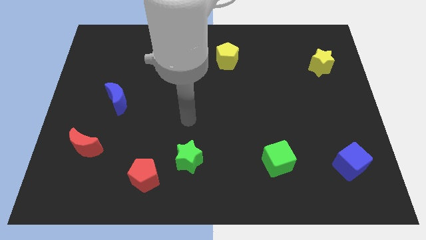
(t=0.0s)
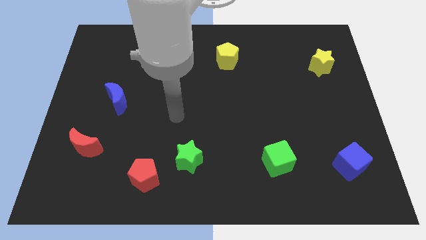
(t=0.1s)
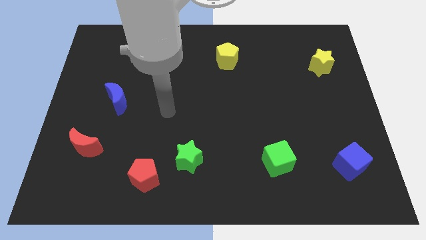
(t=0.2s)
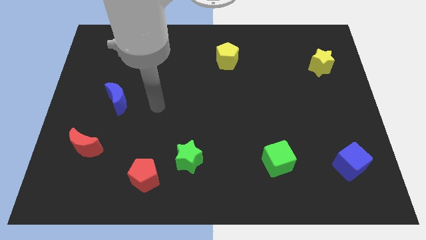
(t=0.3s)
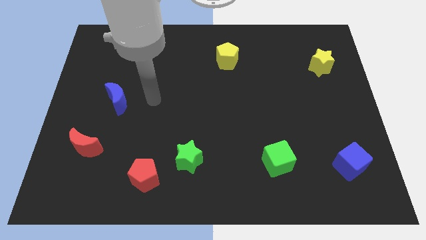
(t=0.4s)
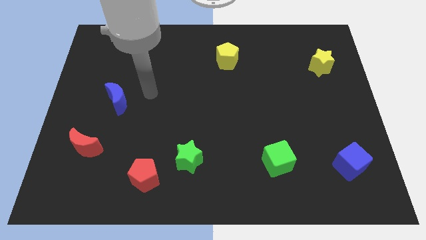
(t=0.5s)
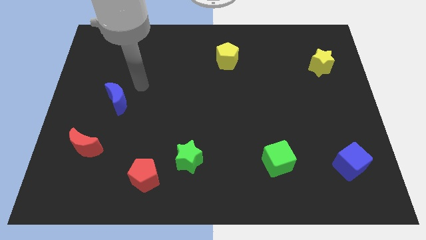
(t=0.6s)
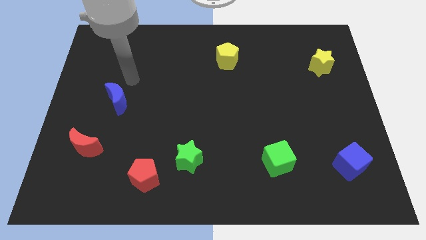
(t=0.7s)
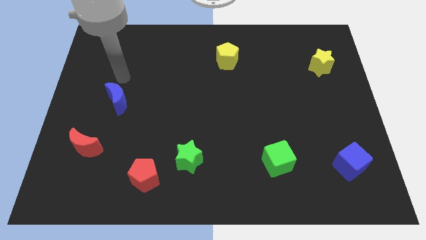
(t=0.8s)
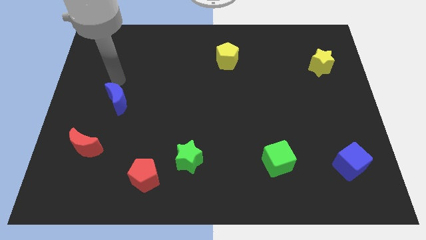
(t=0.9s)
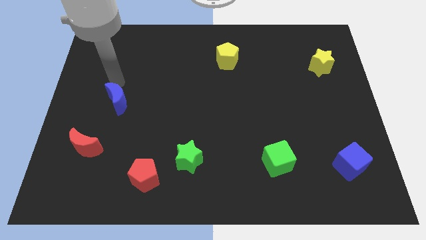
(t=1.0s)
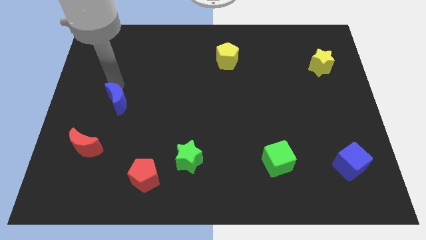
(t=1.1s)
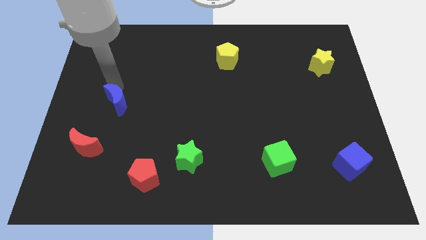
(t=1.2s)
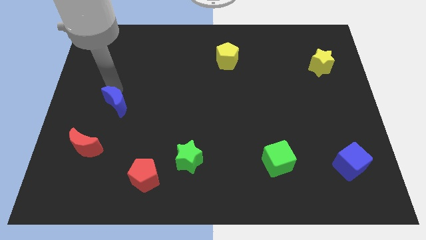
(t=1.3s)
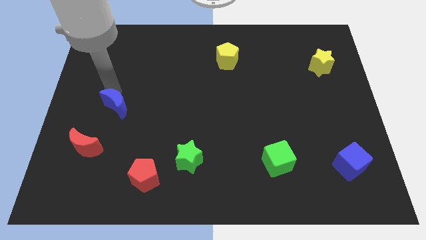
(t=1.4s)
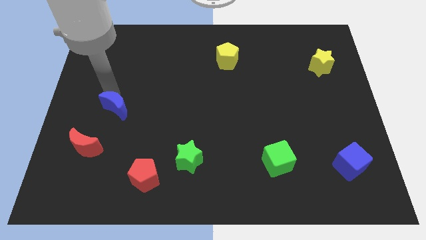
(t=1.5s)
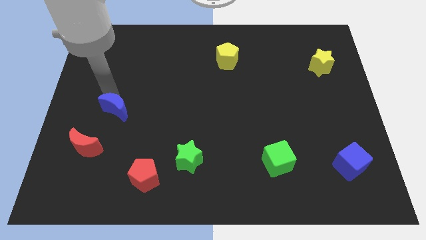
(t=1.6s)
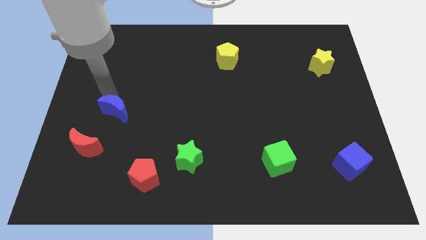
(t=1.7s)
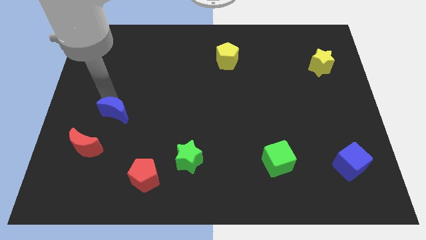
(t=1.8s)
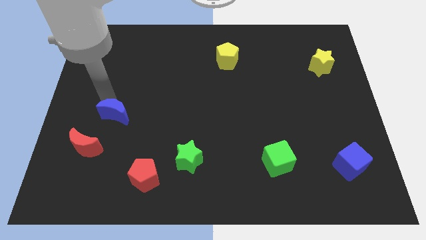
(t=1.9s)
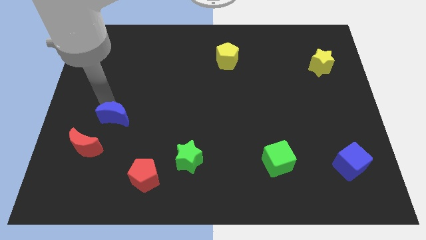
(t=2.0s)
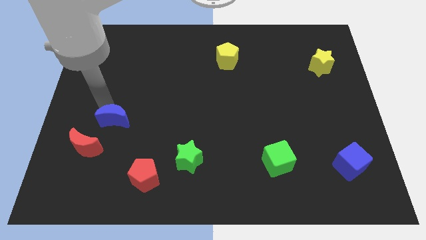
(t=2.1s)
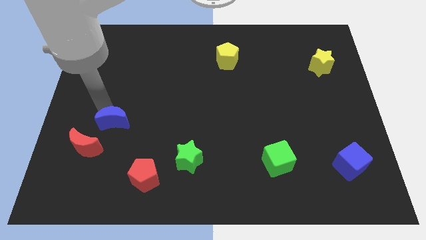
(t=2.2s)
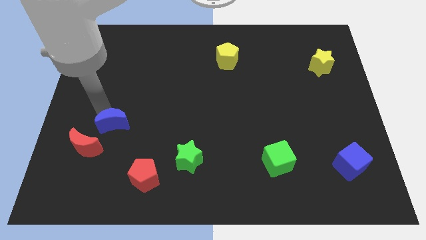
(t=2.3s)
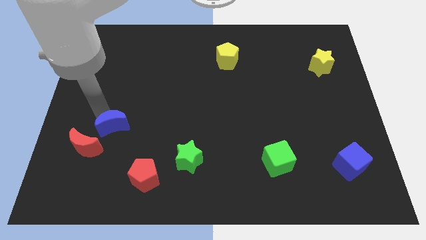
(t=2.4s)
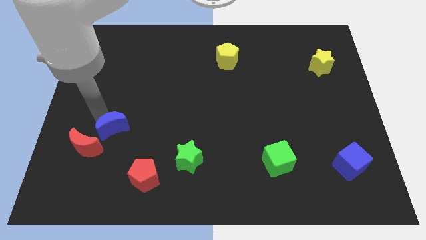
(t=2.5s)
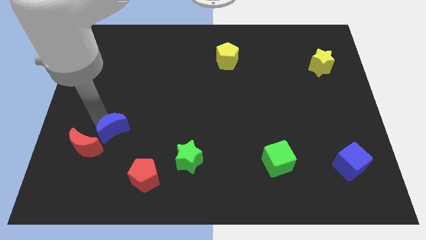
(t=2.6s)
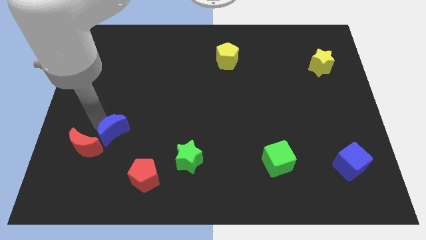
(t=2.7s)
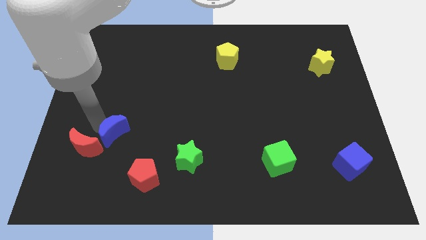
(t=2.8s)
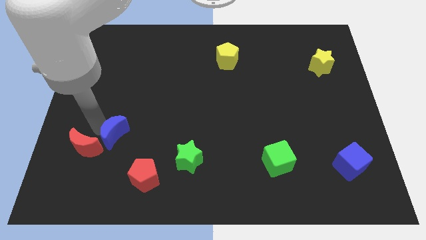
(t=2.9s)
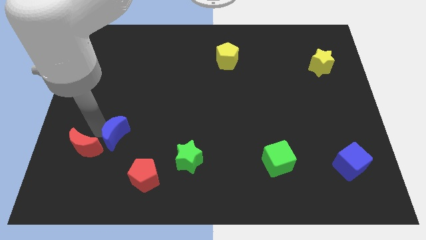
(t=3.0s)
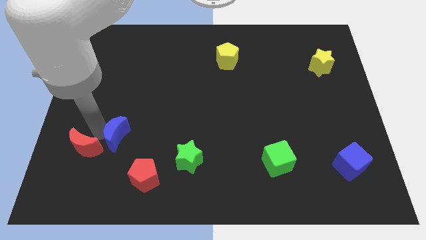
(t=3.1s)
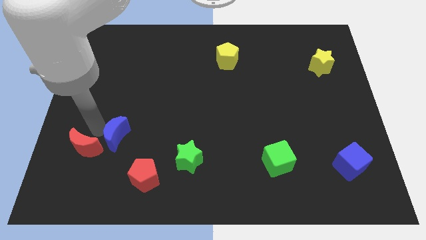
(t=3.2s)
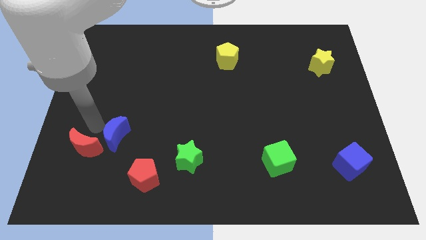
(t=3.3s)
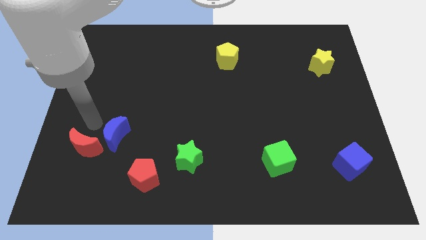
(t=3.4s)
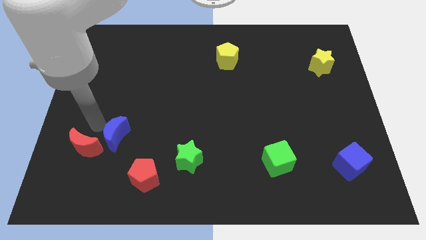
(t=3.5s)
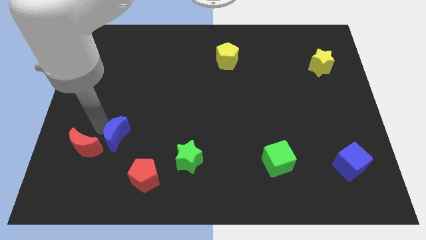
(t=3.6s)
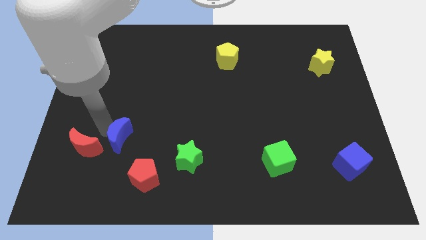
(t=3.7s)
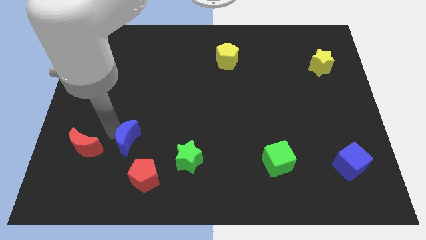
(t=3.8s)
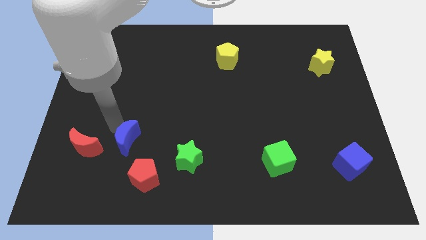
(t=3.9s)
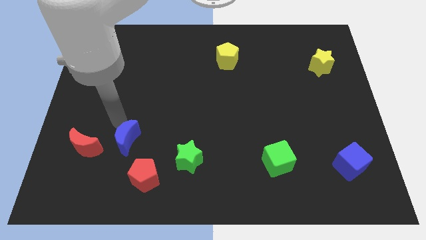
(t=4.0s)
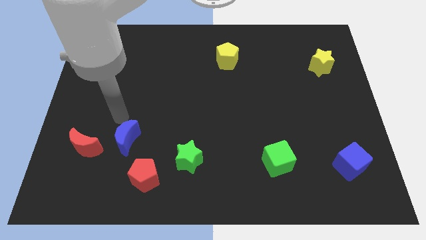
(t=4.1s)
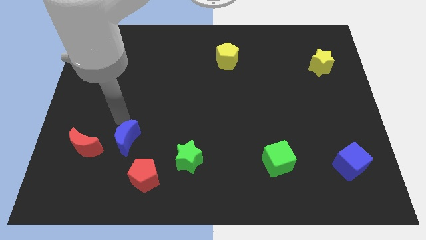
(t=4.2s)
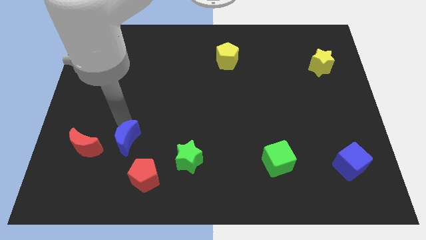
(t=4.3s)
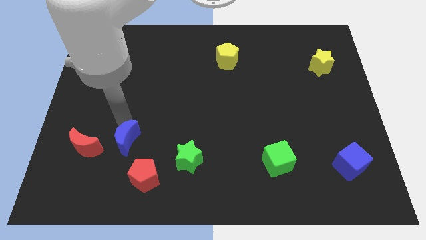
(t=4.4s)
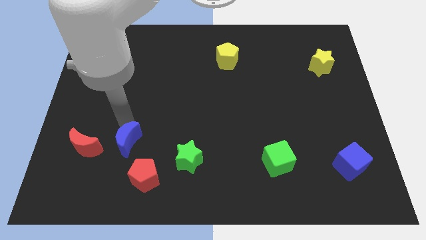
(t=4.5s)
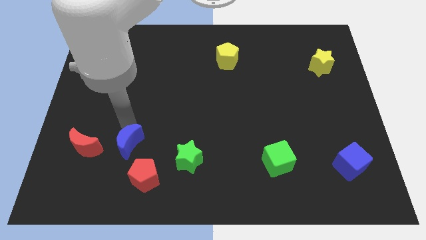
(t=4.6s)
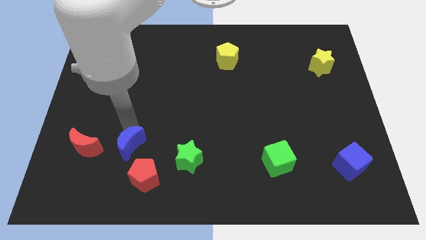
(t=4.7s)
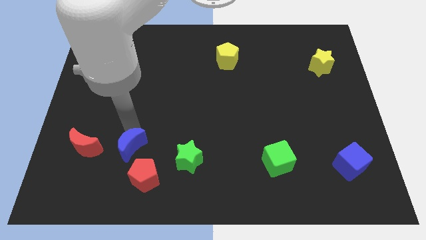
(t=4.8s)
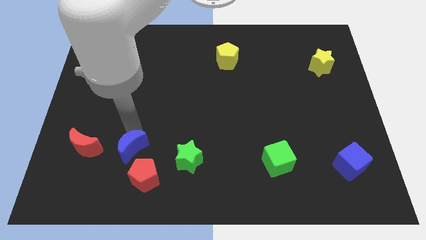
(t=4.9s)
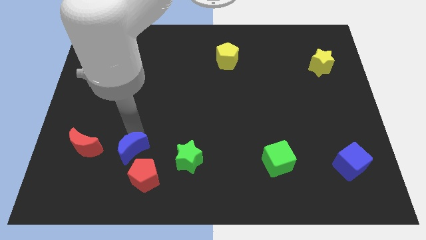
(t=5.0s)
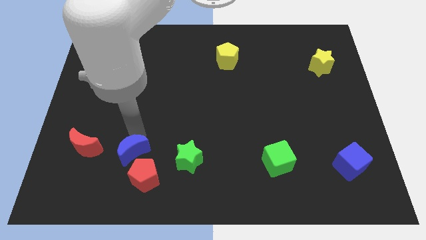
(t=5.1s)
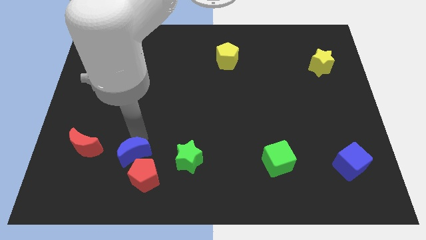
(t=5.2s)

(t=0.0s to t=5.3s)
push the blue moon close to the red pentagon
